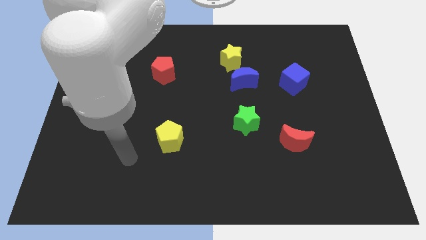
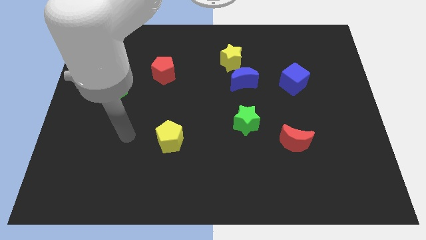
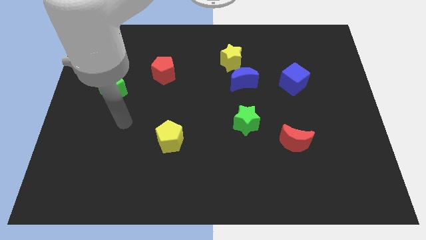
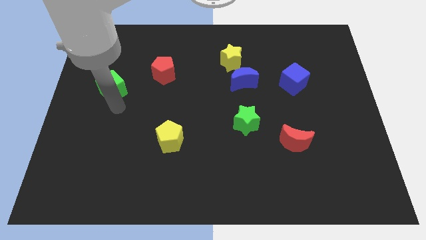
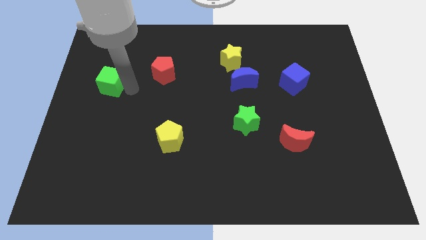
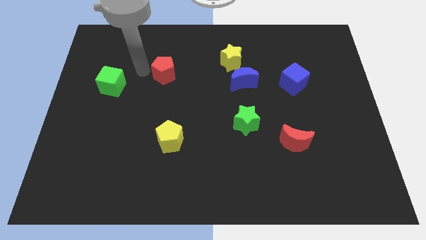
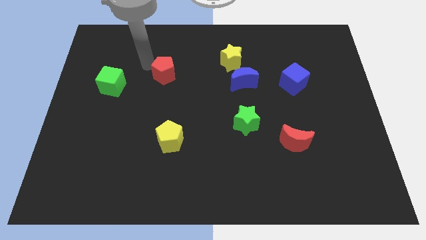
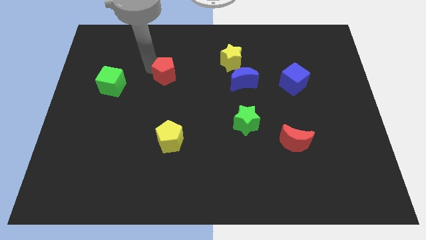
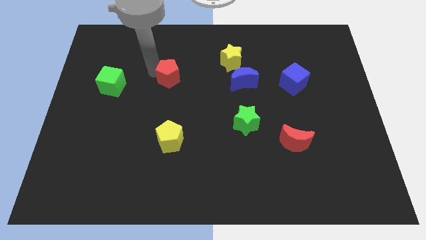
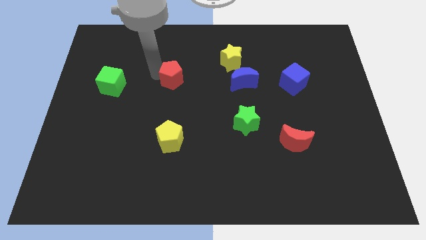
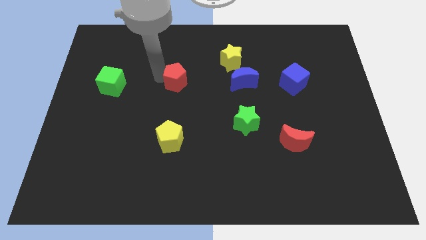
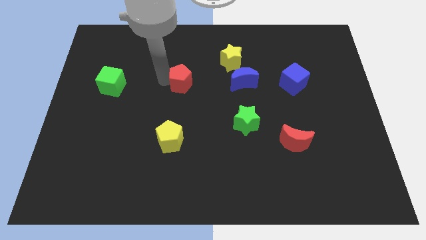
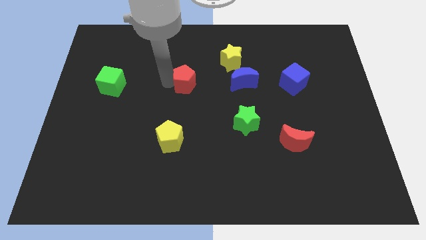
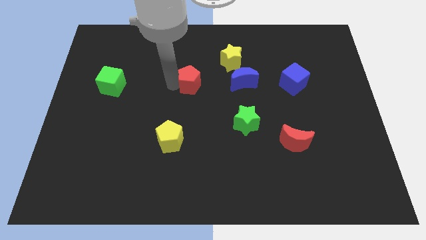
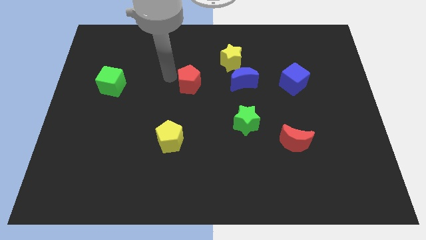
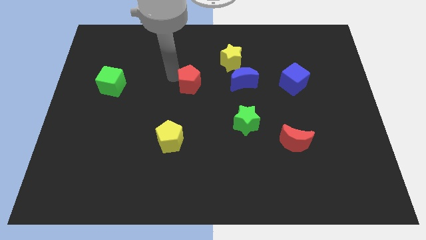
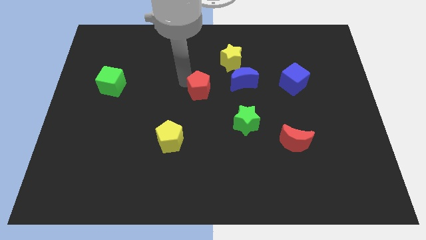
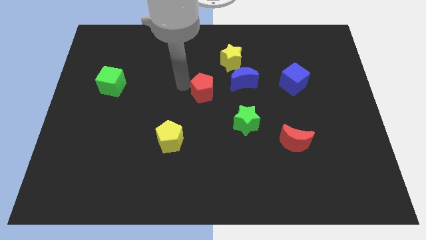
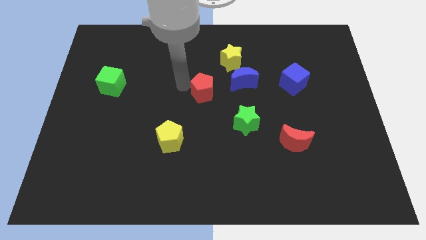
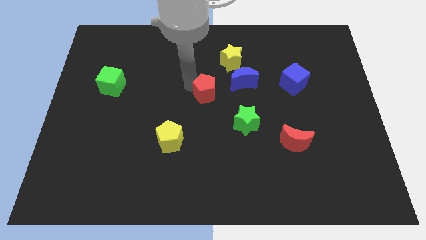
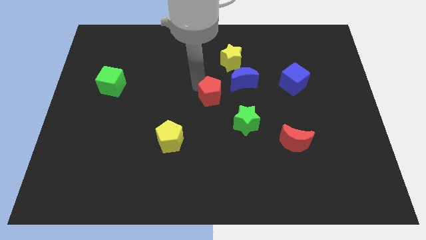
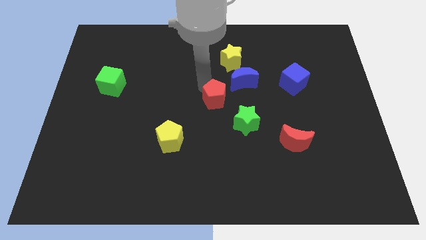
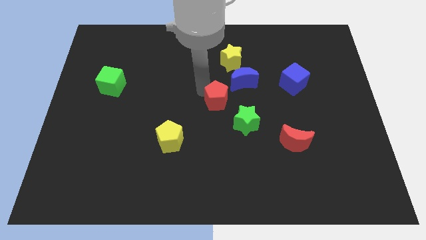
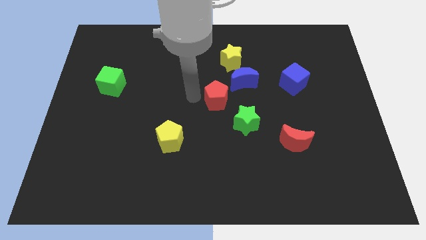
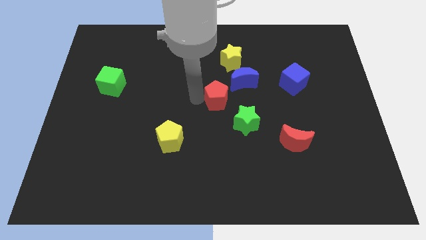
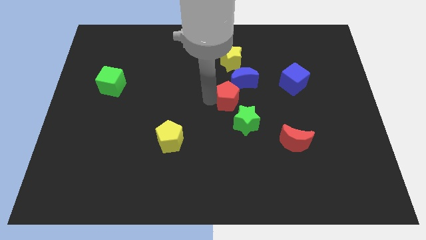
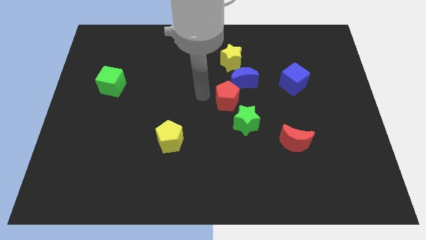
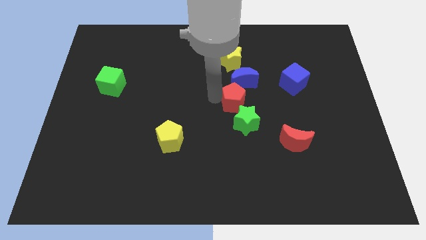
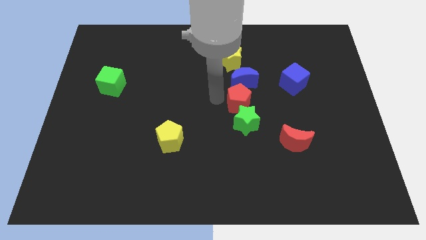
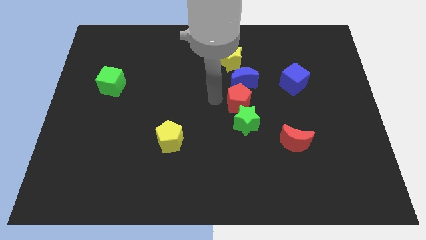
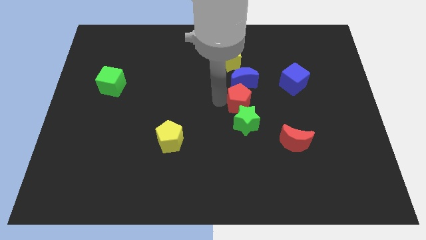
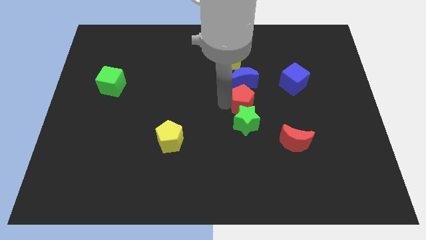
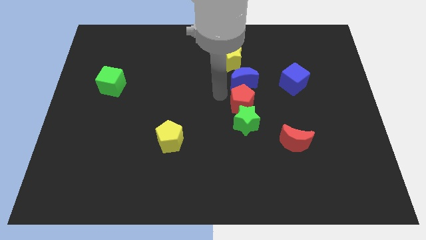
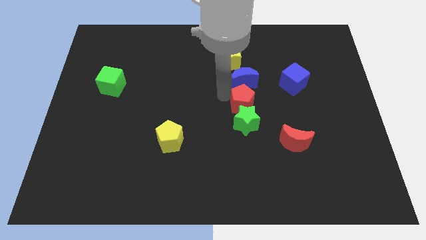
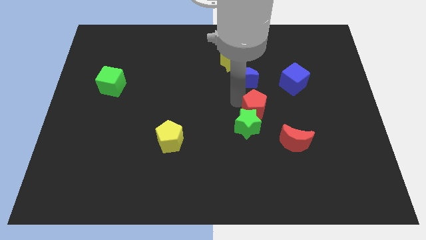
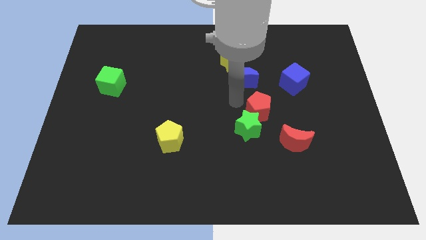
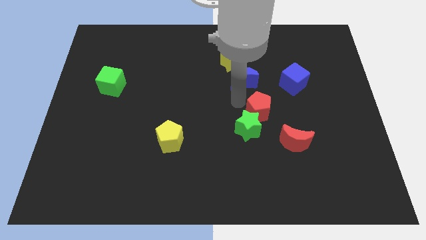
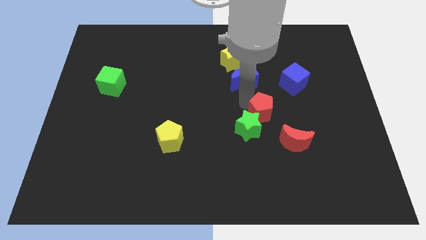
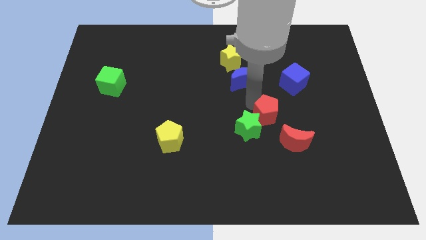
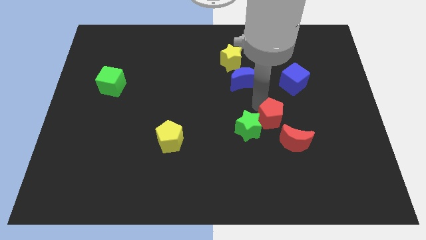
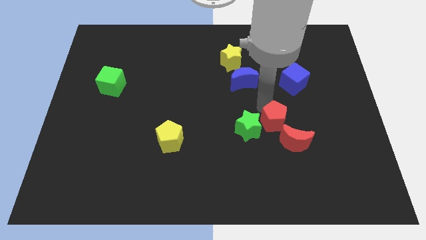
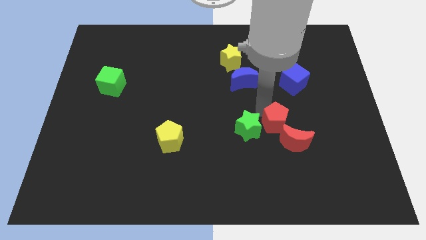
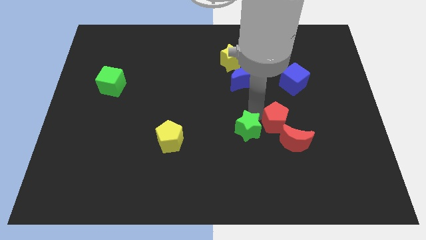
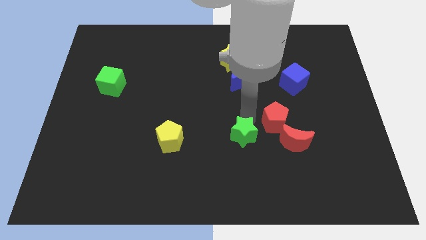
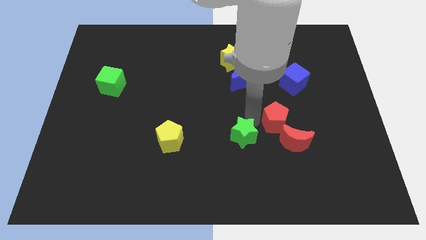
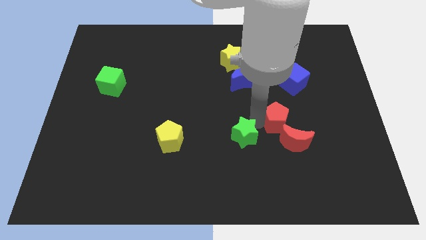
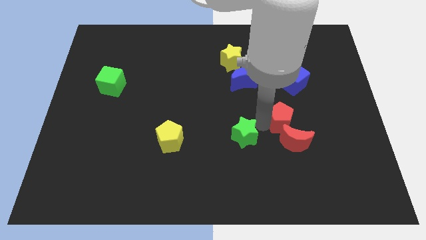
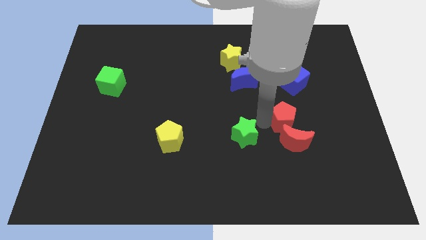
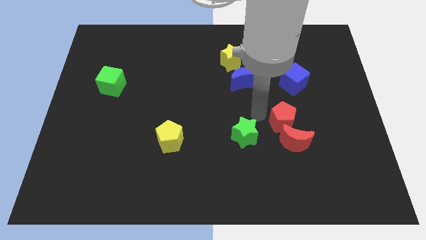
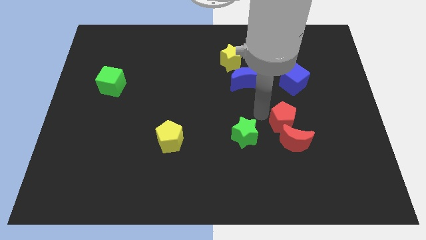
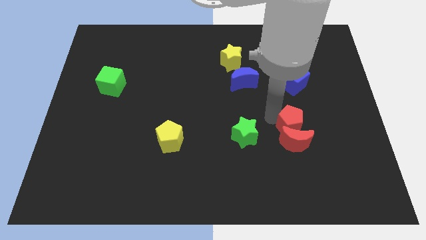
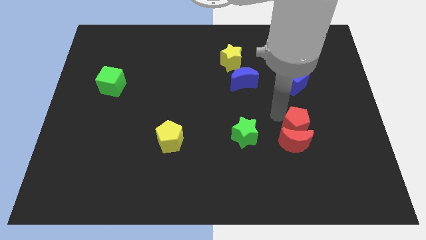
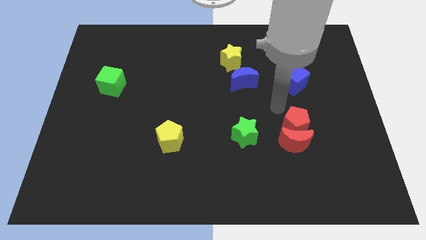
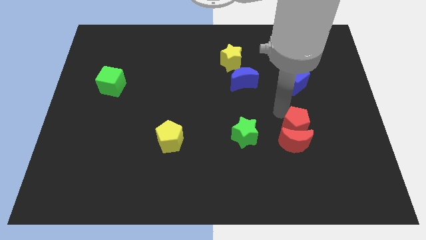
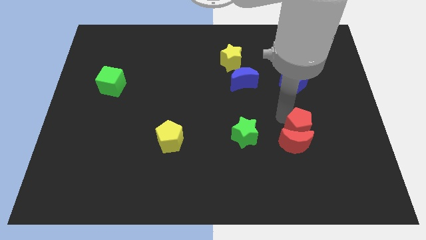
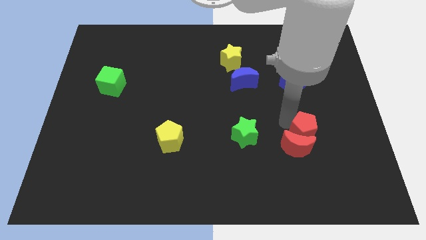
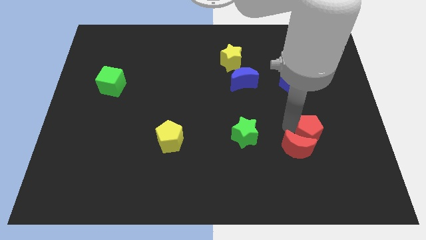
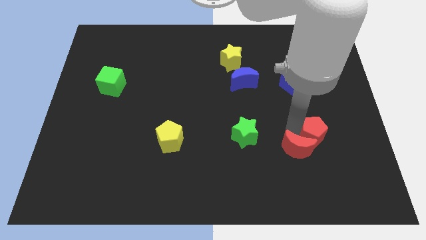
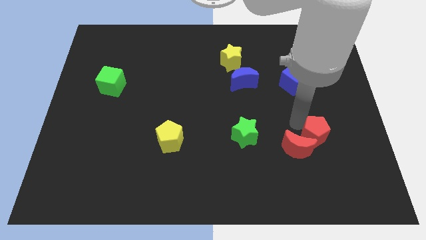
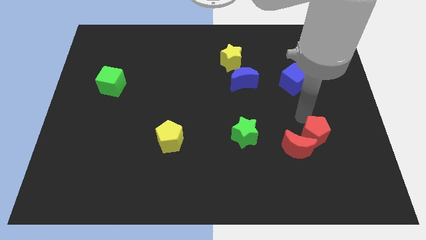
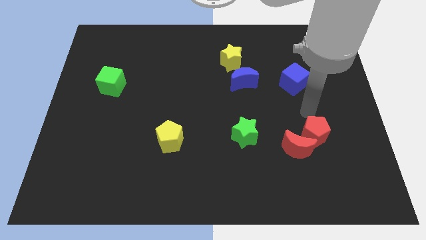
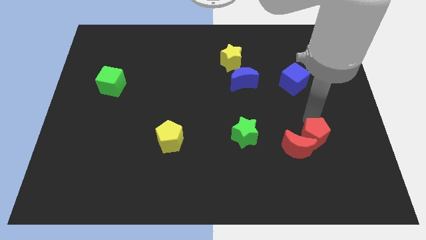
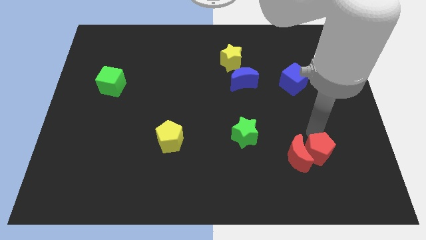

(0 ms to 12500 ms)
put the red pentagon diagonally down and to the right of the red moon

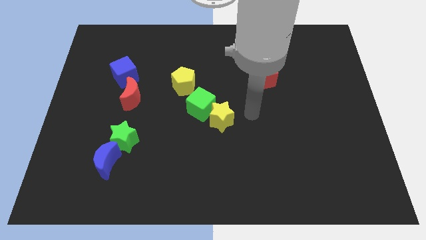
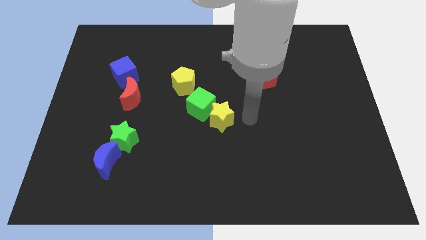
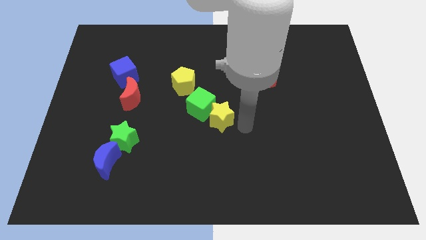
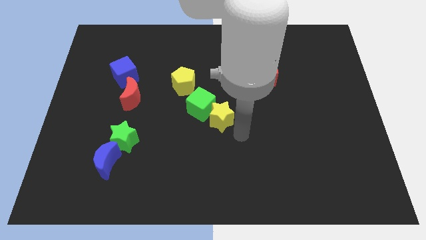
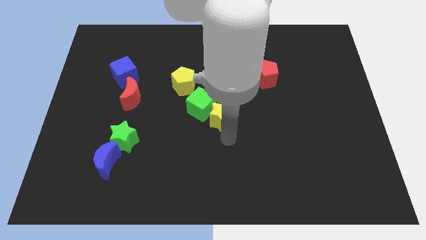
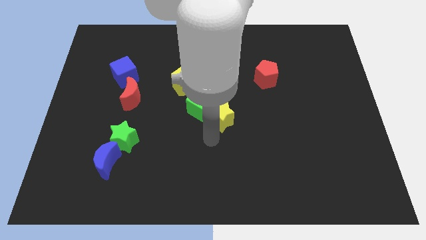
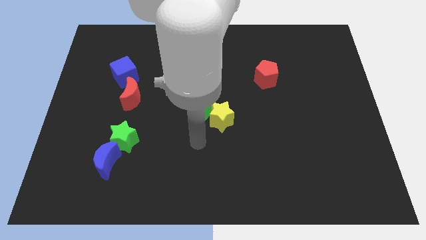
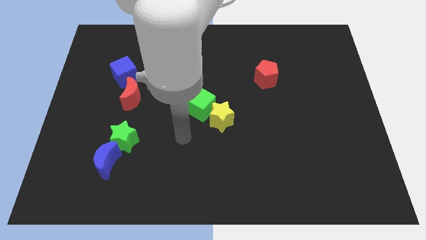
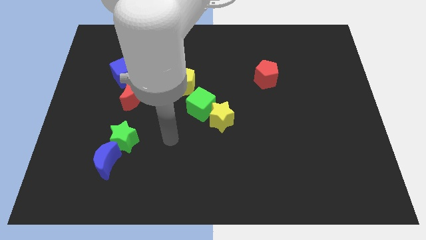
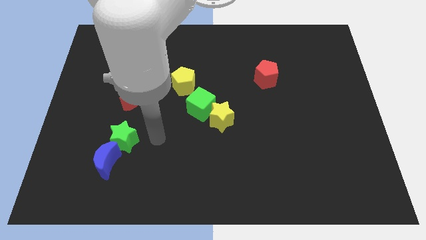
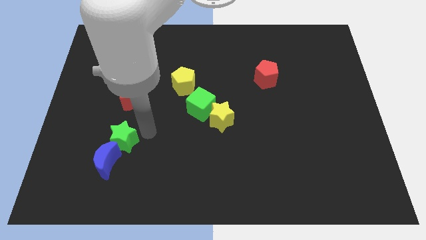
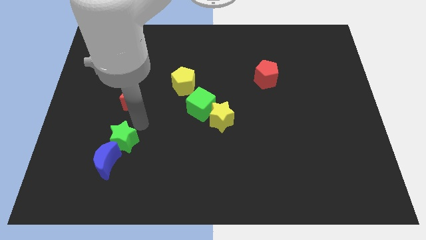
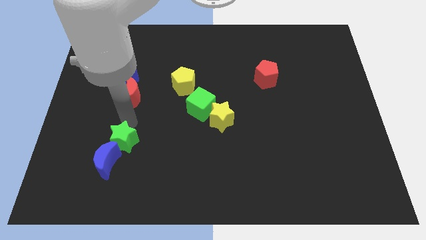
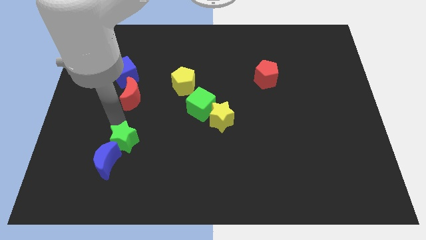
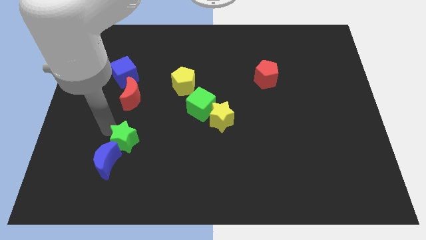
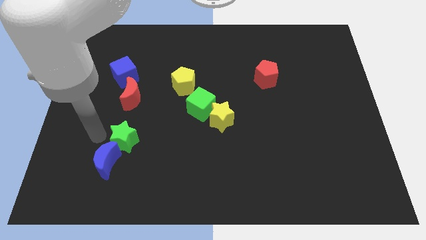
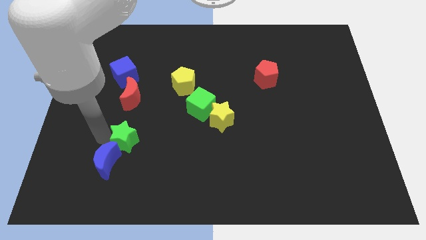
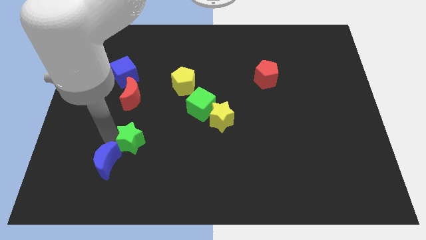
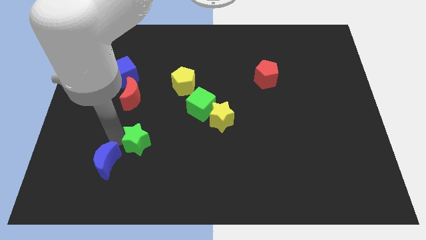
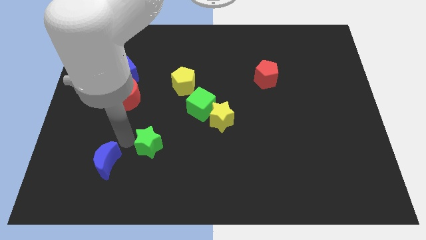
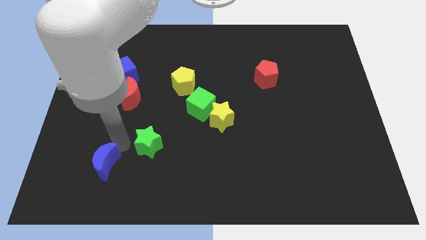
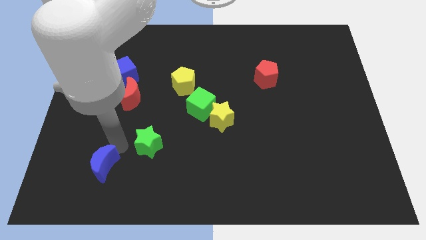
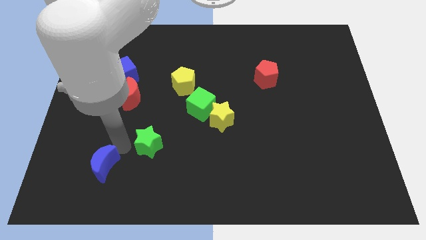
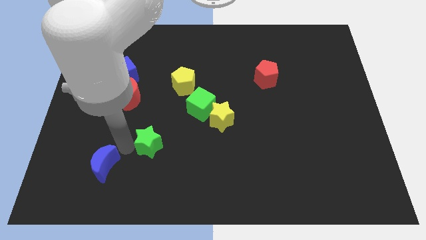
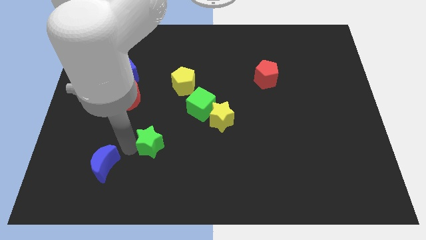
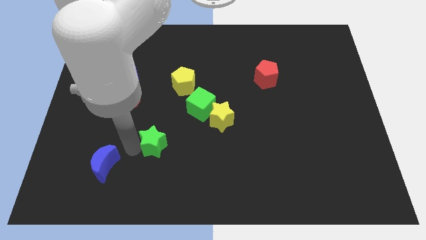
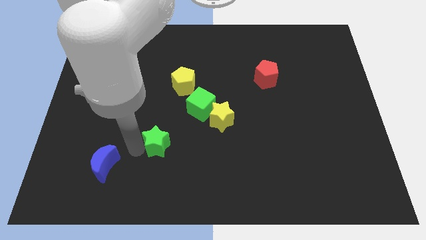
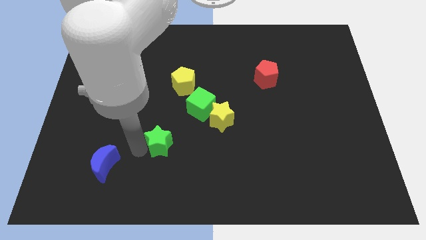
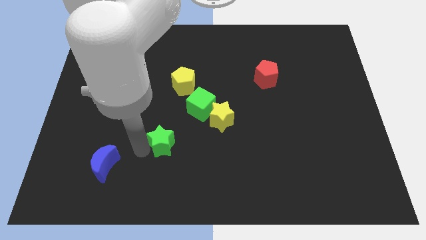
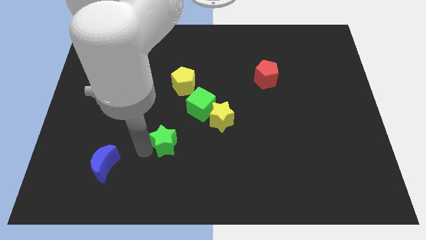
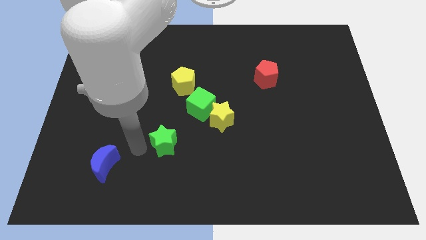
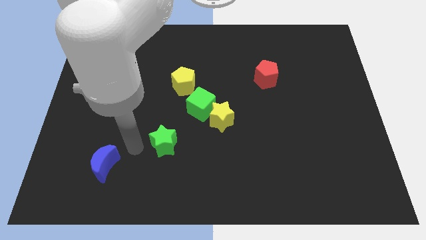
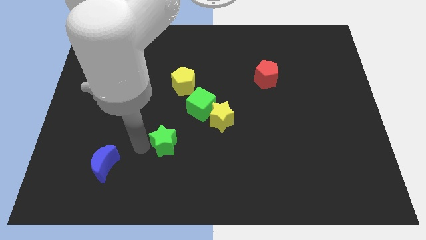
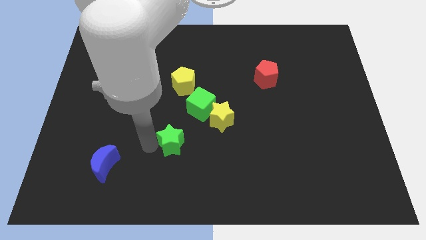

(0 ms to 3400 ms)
push the green star to the bottom left of the yellow star
